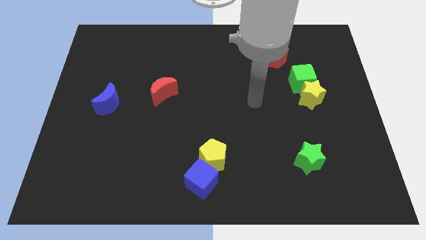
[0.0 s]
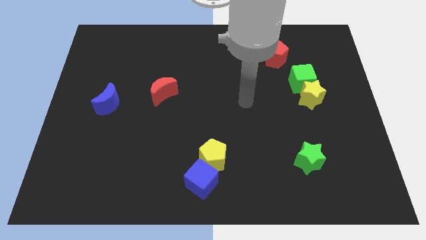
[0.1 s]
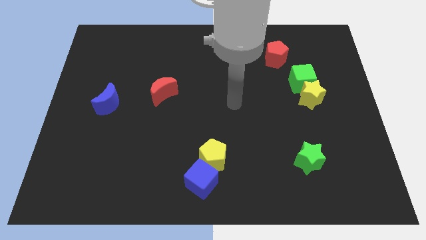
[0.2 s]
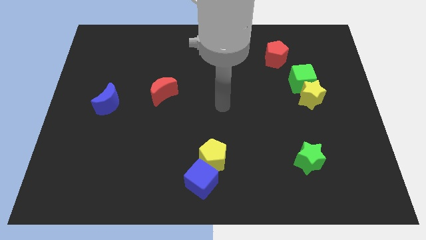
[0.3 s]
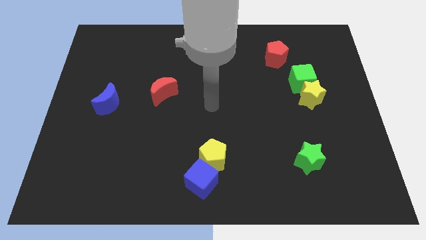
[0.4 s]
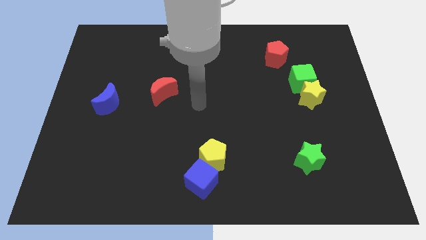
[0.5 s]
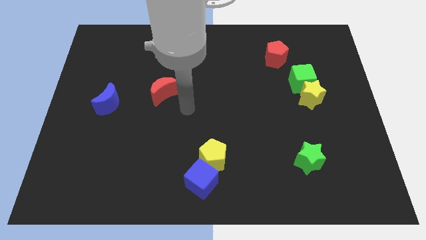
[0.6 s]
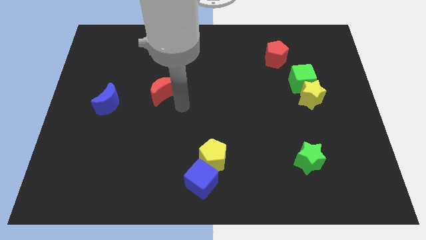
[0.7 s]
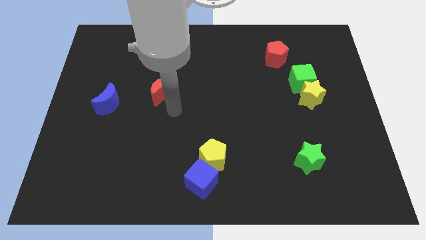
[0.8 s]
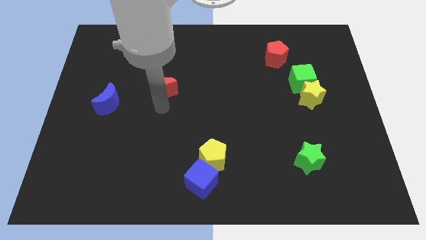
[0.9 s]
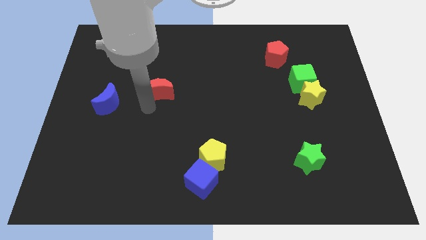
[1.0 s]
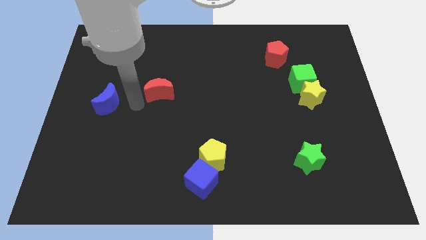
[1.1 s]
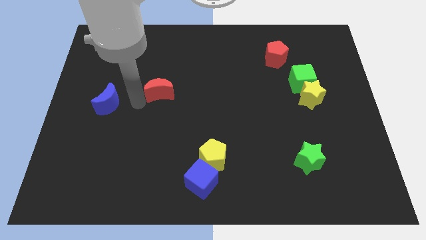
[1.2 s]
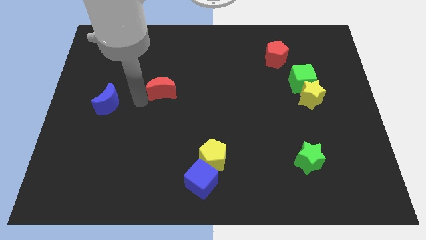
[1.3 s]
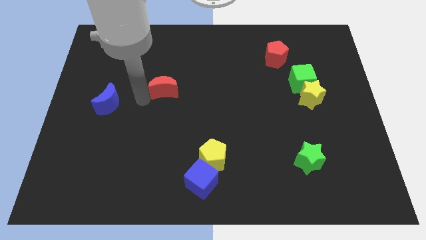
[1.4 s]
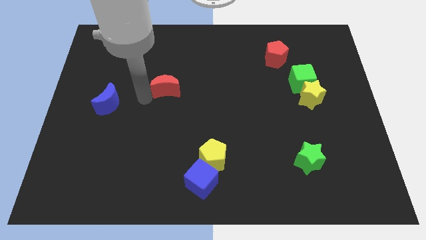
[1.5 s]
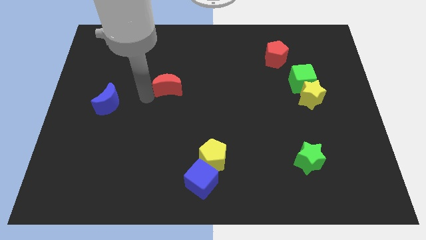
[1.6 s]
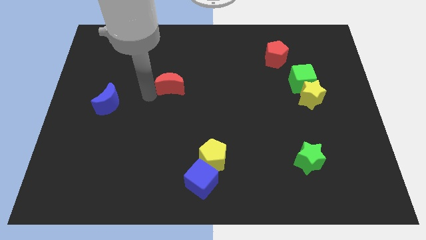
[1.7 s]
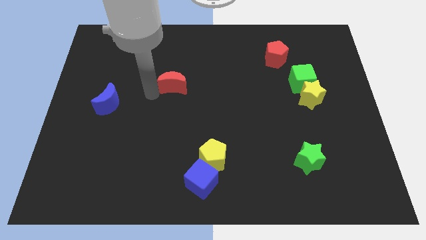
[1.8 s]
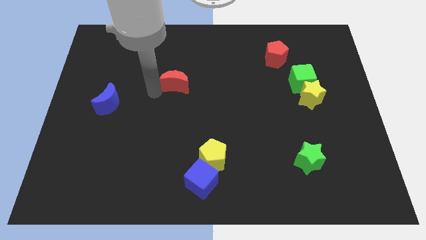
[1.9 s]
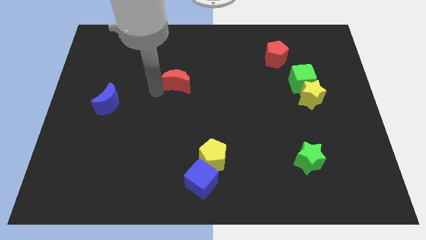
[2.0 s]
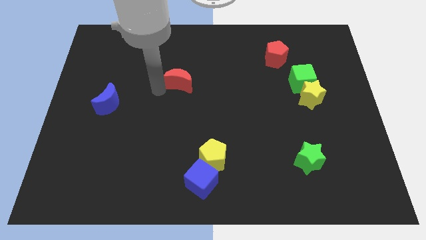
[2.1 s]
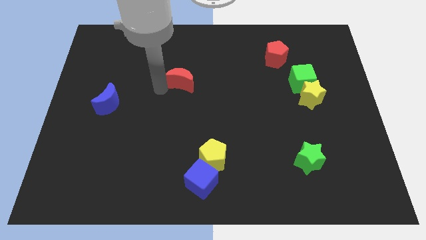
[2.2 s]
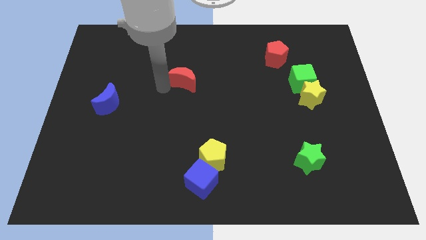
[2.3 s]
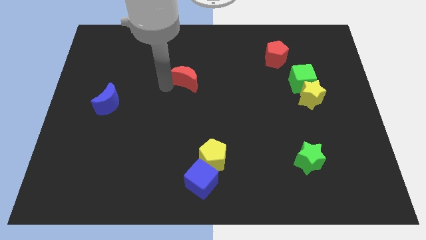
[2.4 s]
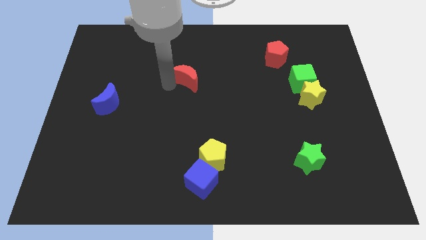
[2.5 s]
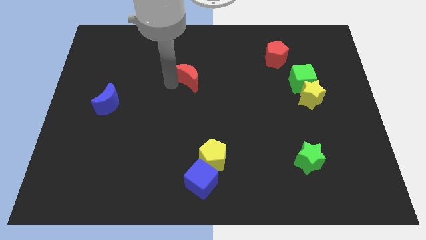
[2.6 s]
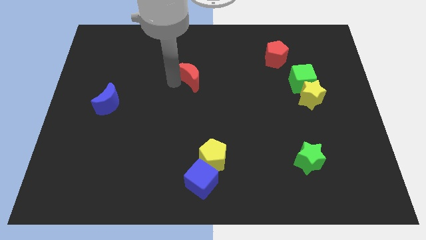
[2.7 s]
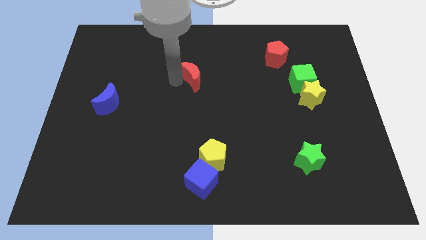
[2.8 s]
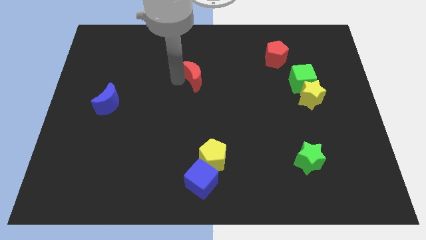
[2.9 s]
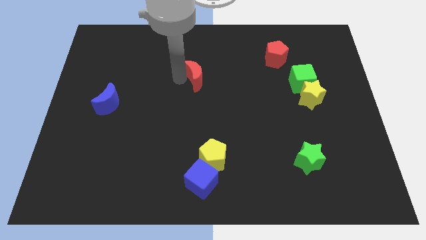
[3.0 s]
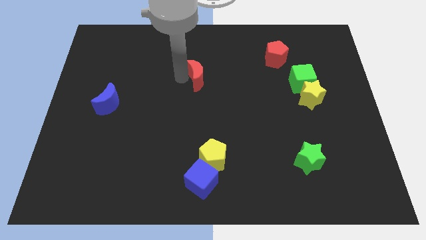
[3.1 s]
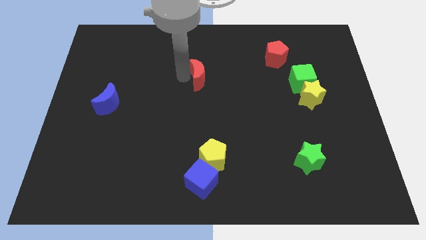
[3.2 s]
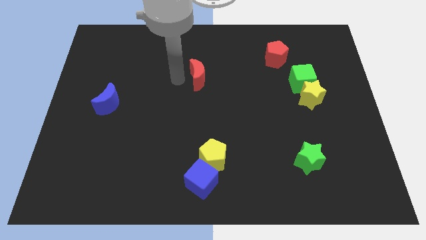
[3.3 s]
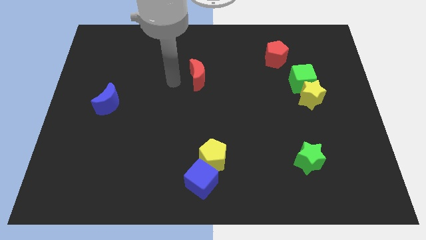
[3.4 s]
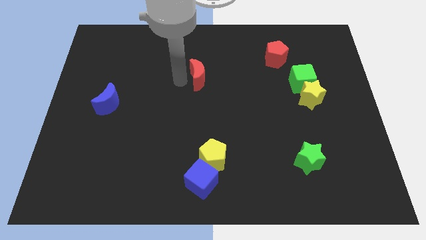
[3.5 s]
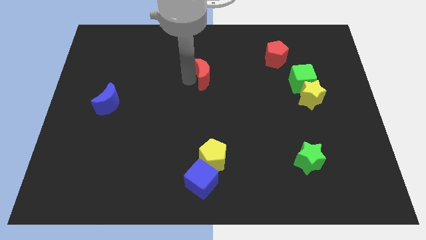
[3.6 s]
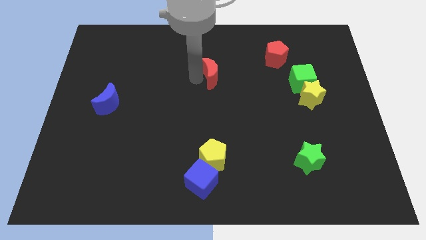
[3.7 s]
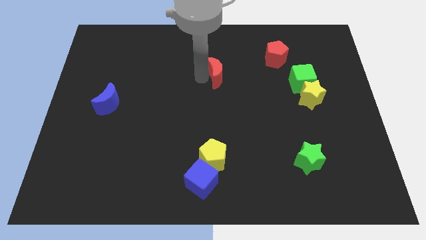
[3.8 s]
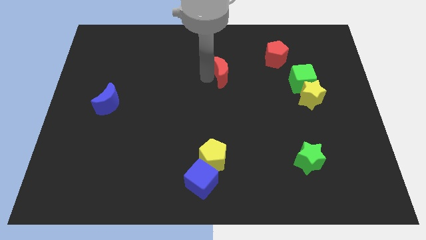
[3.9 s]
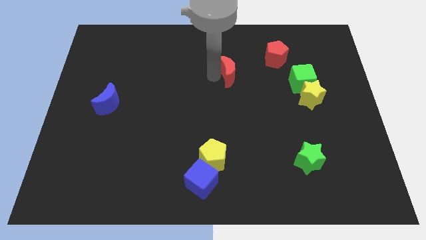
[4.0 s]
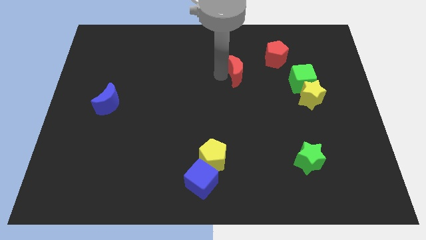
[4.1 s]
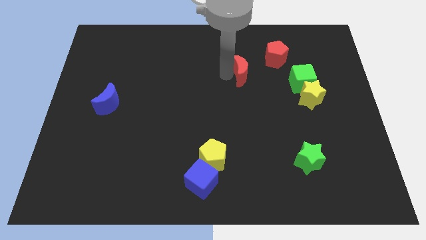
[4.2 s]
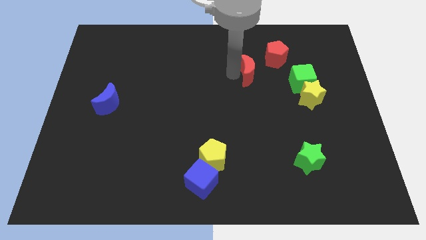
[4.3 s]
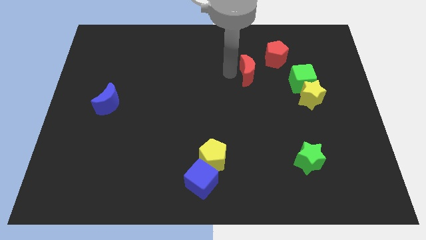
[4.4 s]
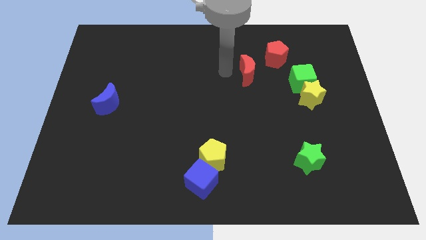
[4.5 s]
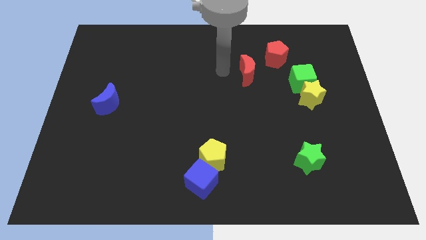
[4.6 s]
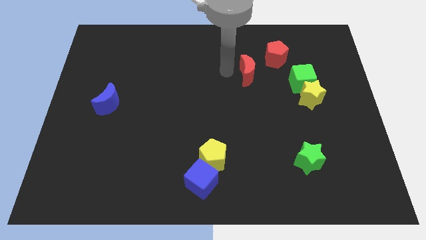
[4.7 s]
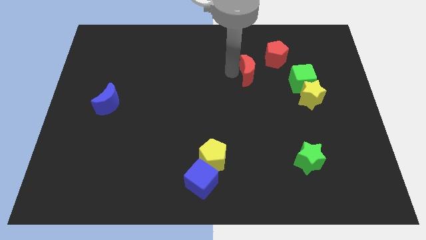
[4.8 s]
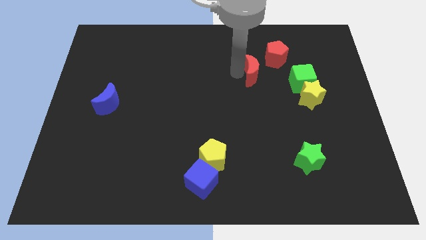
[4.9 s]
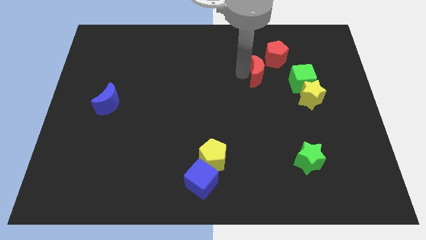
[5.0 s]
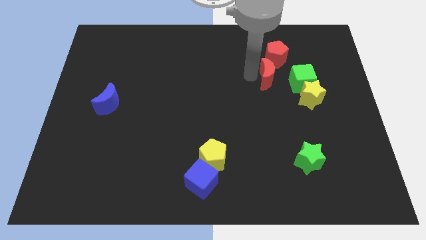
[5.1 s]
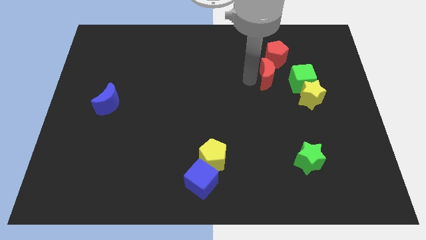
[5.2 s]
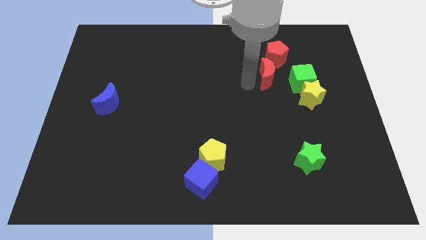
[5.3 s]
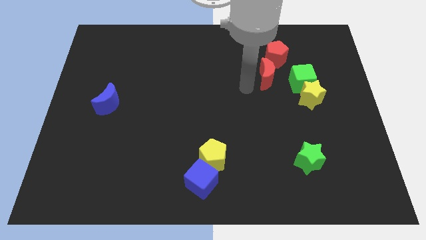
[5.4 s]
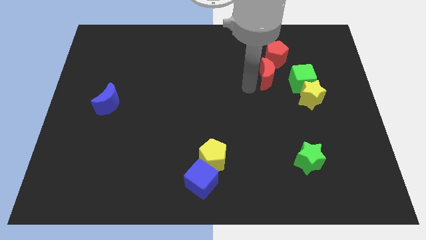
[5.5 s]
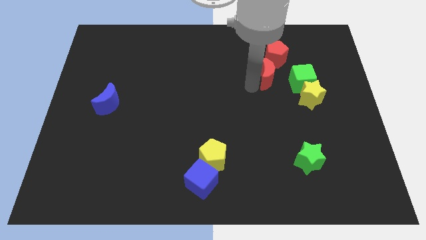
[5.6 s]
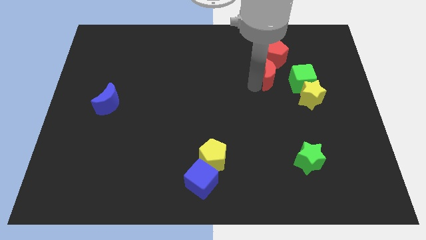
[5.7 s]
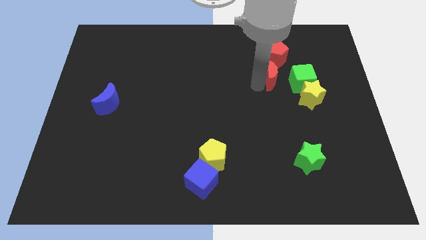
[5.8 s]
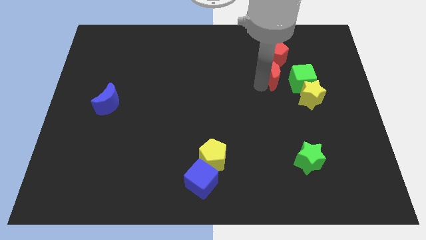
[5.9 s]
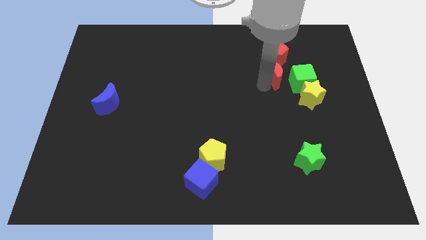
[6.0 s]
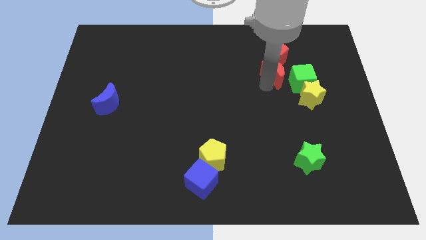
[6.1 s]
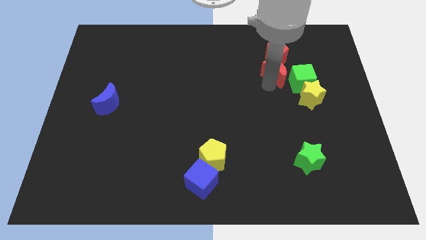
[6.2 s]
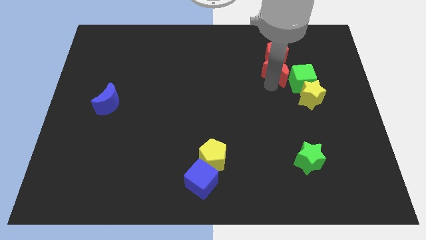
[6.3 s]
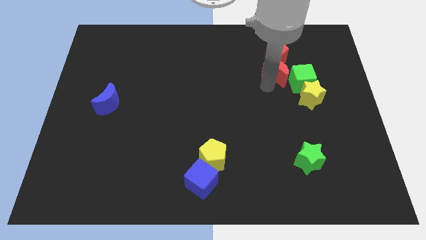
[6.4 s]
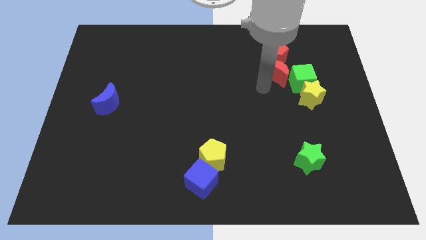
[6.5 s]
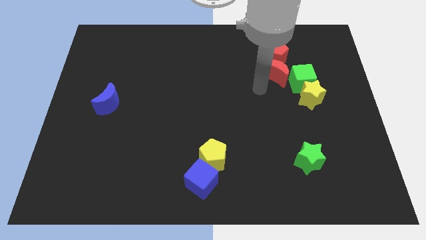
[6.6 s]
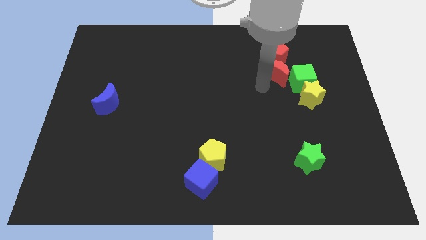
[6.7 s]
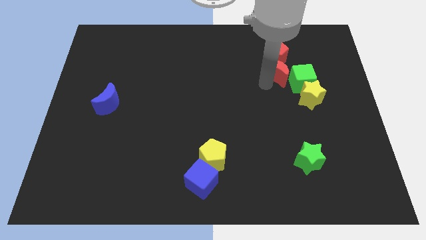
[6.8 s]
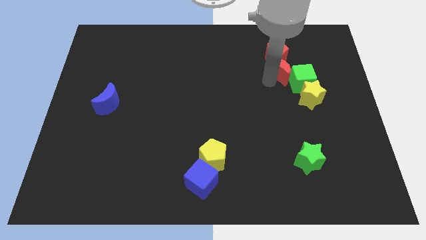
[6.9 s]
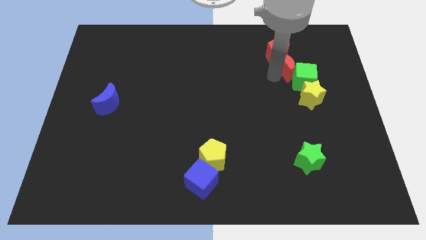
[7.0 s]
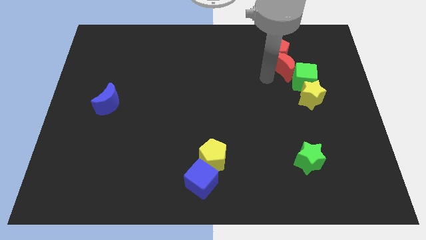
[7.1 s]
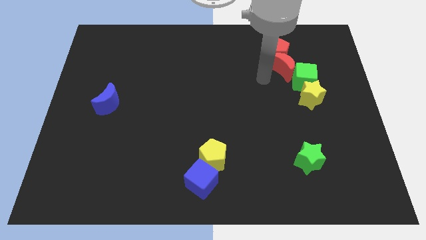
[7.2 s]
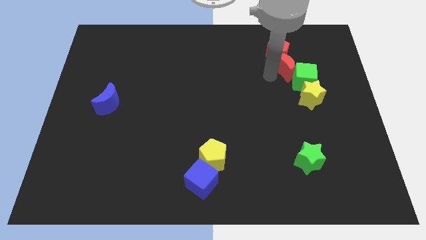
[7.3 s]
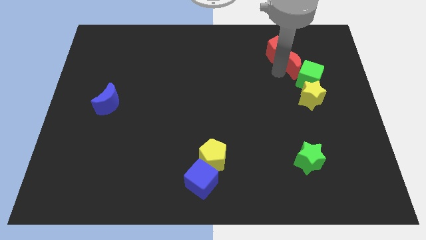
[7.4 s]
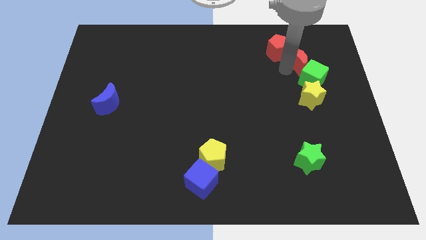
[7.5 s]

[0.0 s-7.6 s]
put the red moon to the right side of the red pentagon
